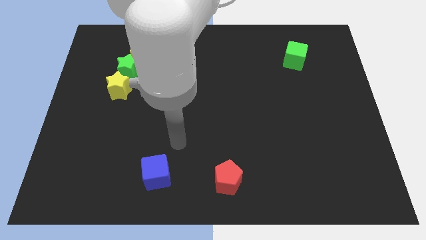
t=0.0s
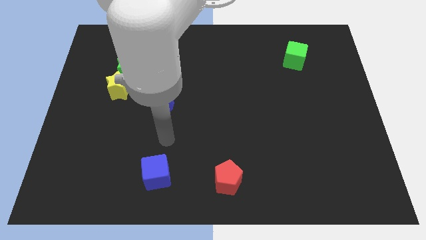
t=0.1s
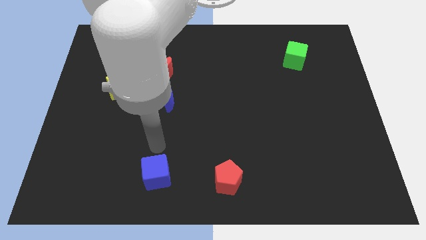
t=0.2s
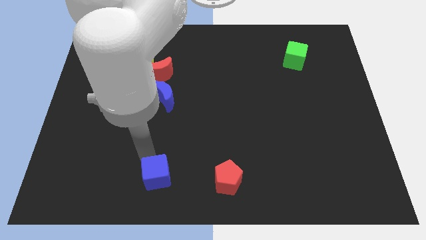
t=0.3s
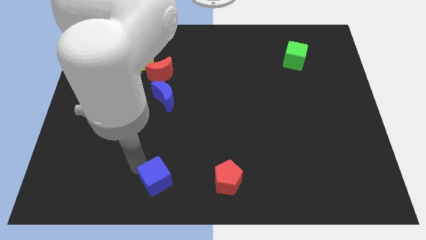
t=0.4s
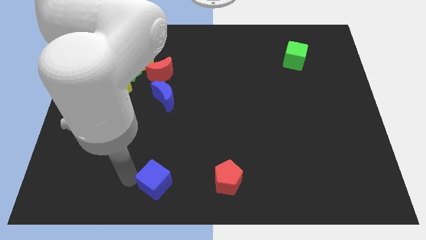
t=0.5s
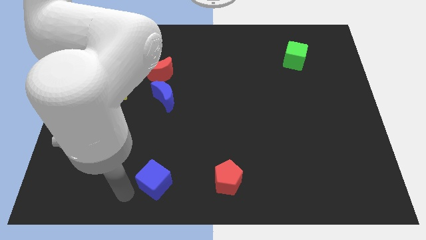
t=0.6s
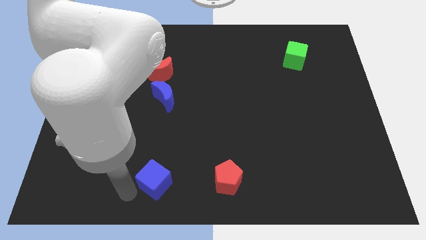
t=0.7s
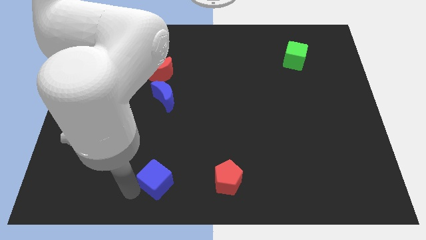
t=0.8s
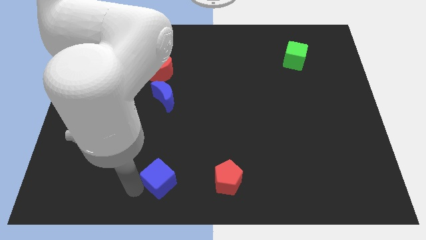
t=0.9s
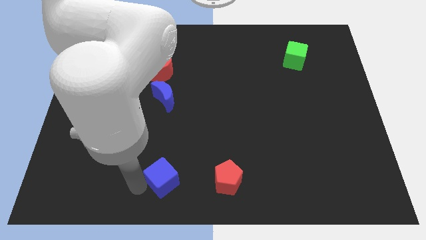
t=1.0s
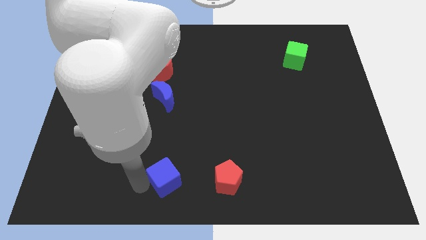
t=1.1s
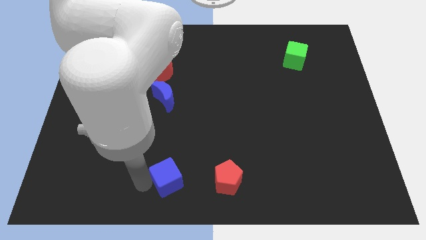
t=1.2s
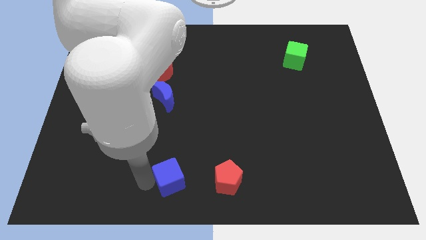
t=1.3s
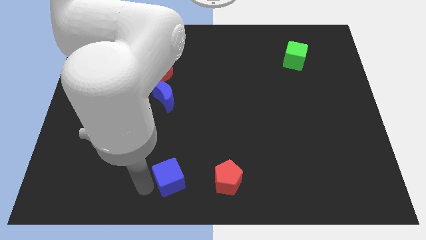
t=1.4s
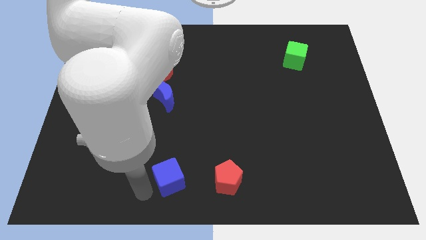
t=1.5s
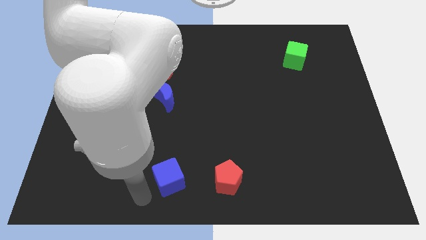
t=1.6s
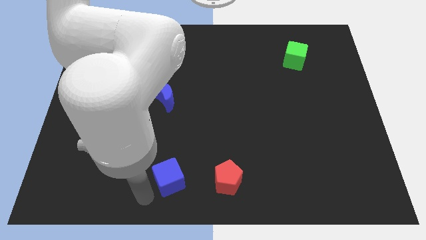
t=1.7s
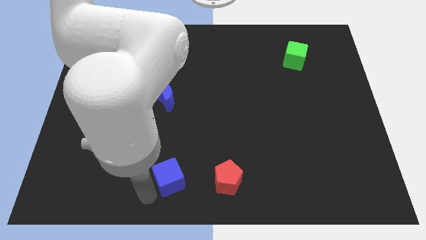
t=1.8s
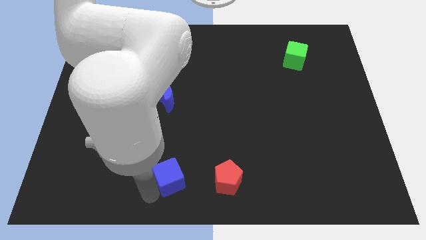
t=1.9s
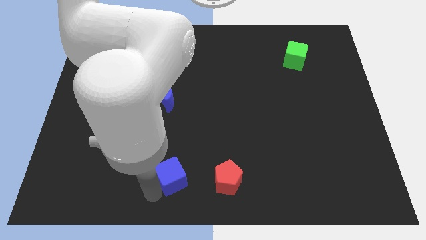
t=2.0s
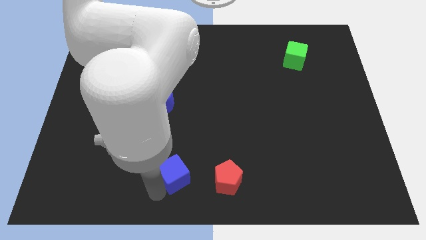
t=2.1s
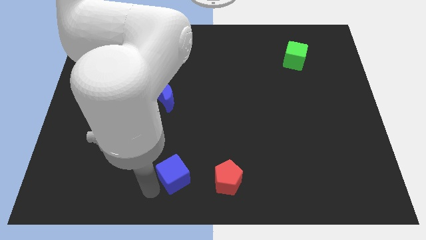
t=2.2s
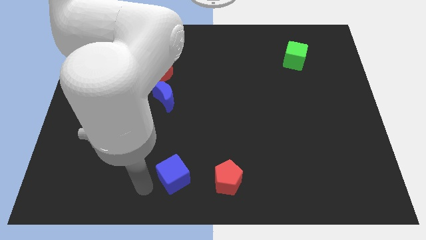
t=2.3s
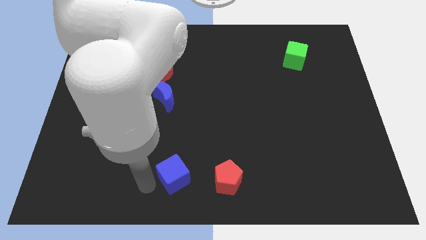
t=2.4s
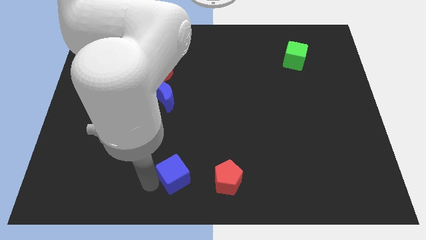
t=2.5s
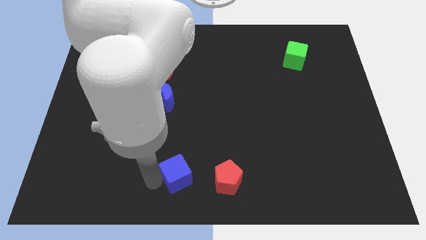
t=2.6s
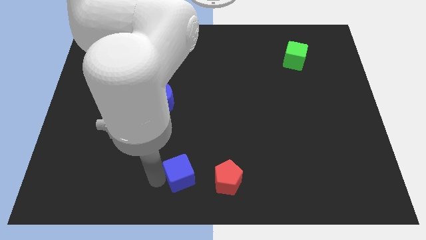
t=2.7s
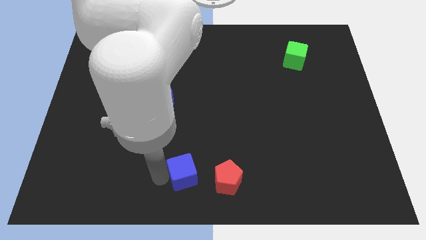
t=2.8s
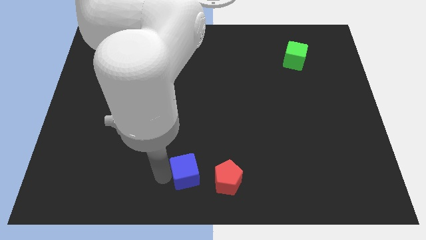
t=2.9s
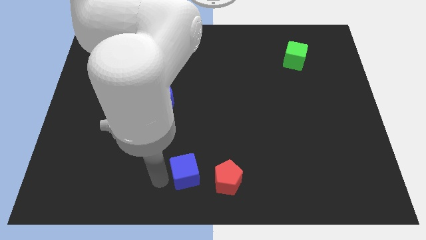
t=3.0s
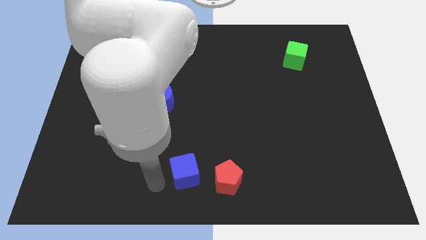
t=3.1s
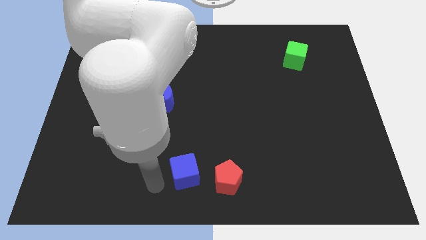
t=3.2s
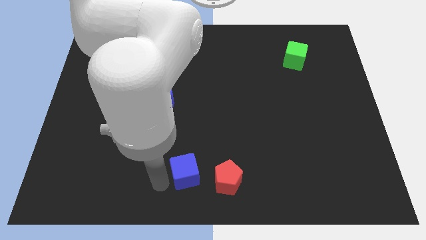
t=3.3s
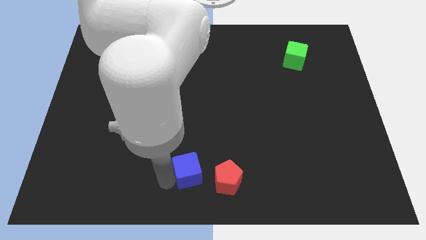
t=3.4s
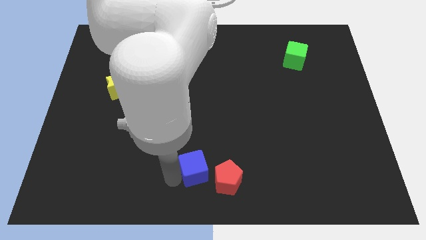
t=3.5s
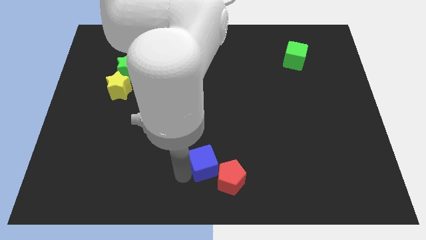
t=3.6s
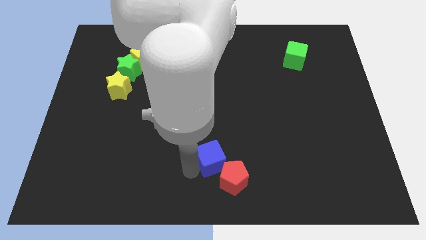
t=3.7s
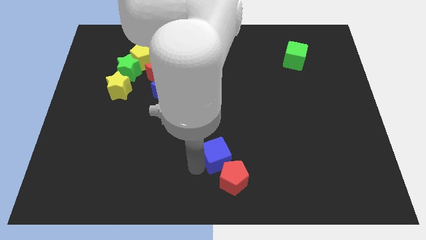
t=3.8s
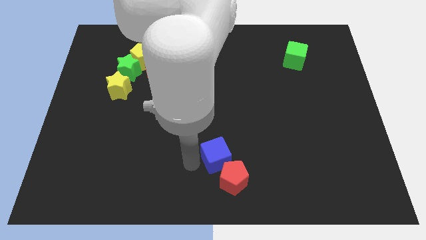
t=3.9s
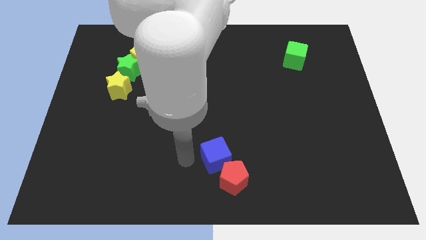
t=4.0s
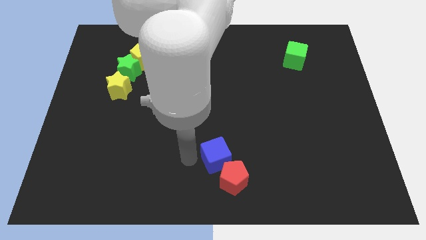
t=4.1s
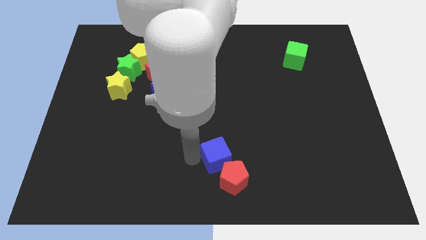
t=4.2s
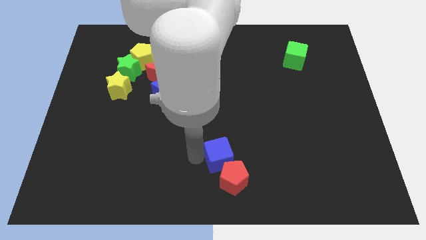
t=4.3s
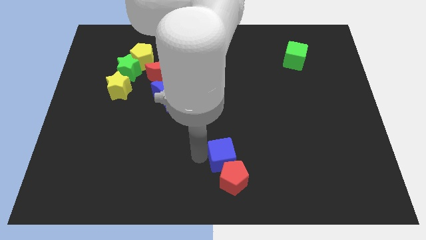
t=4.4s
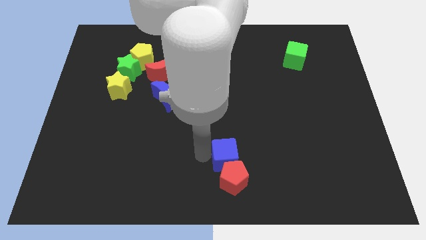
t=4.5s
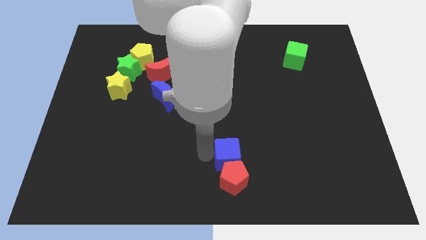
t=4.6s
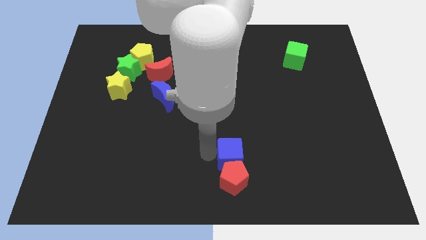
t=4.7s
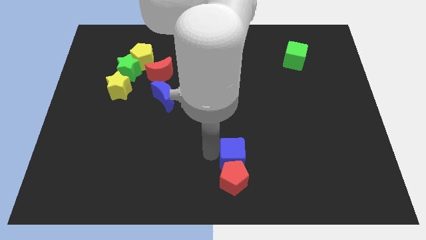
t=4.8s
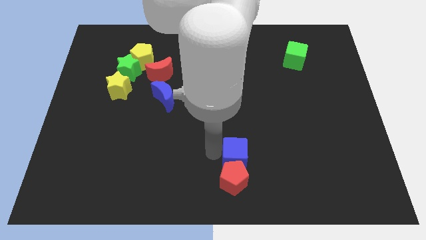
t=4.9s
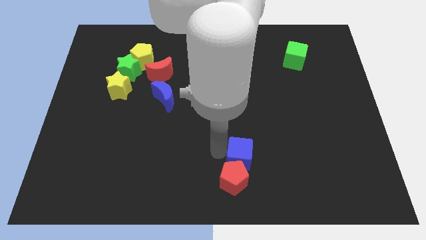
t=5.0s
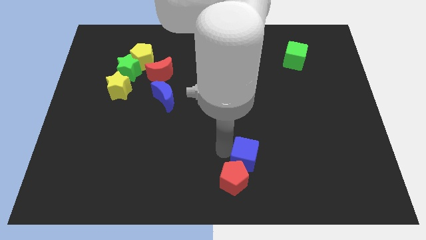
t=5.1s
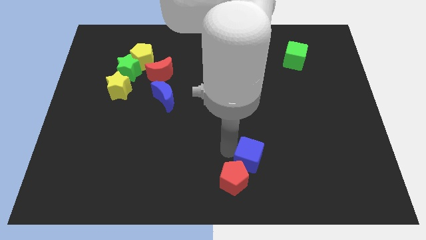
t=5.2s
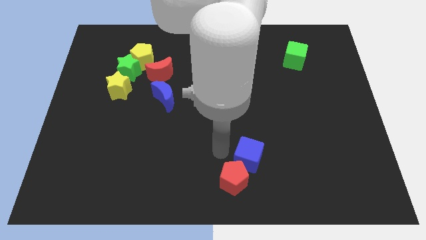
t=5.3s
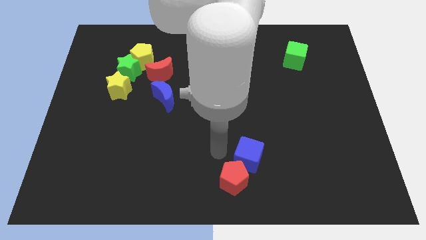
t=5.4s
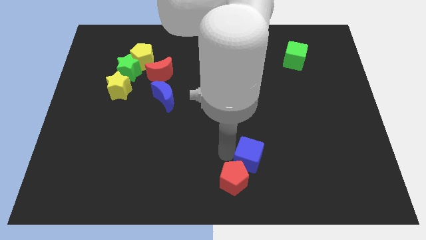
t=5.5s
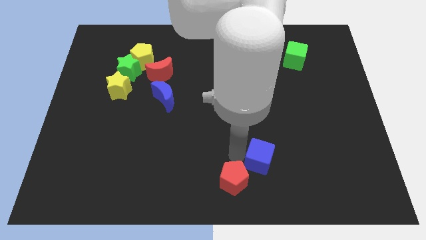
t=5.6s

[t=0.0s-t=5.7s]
move the blue cube to the right

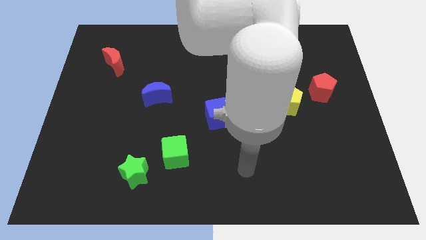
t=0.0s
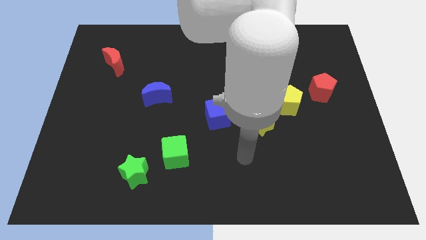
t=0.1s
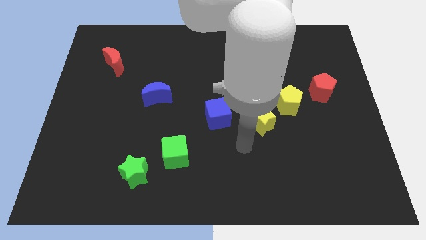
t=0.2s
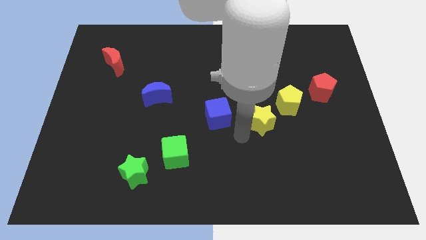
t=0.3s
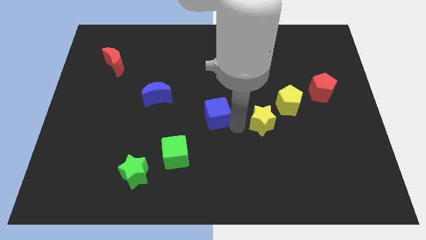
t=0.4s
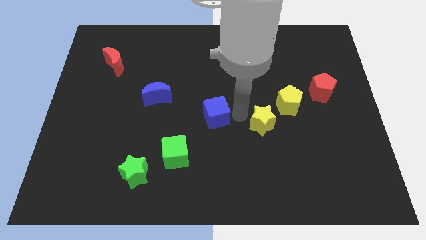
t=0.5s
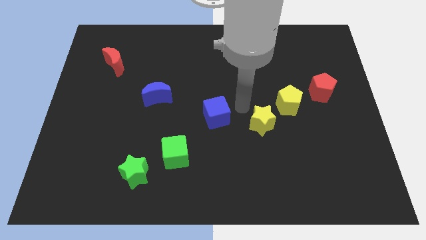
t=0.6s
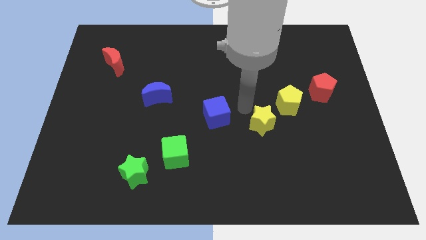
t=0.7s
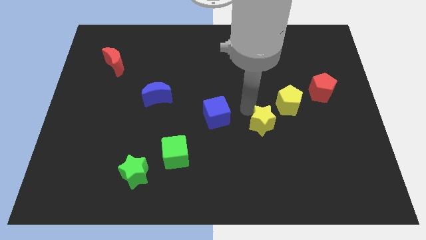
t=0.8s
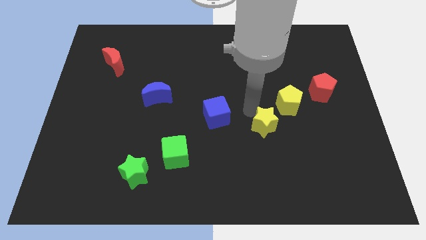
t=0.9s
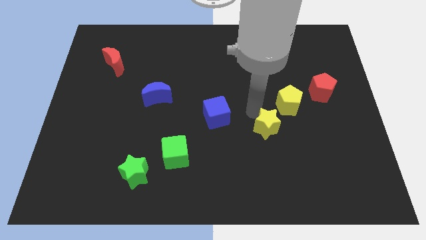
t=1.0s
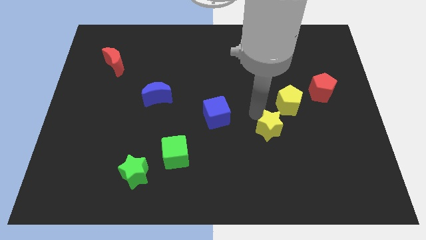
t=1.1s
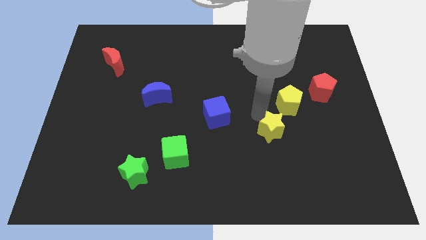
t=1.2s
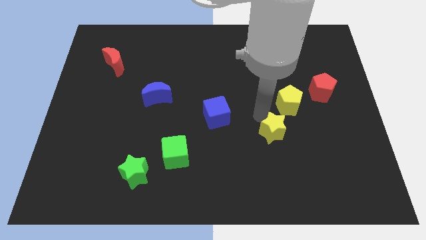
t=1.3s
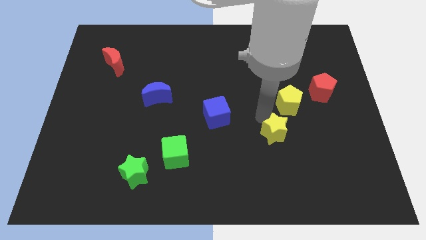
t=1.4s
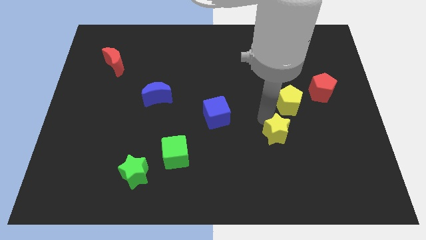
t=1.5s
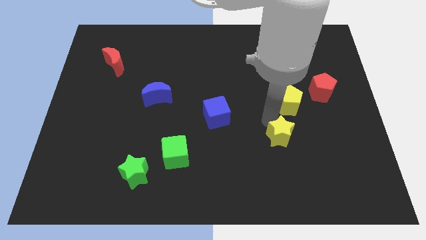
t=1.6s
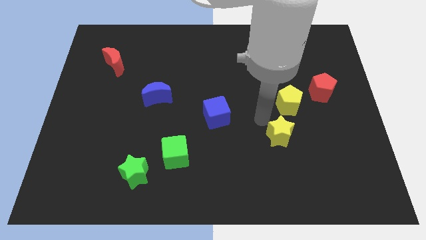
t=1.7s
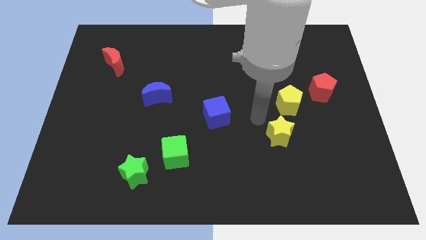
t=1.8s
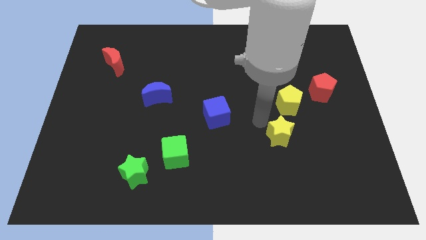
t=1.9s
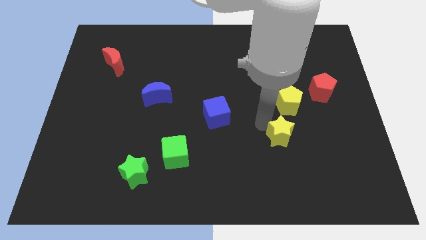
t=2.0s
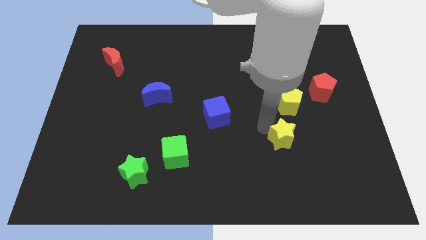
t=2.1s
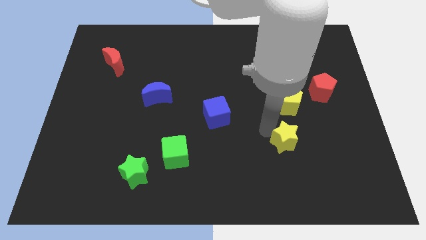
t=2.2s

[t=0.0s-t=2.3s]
push the yellow star down and right slightly
